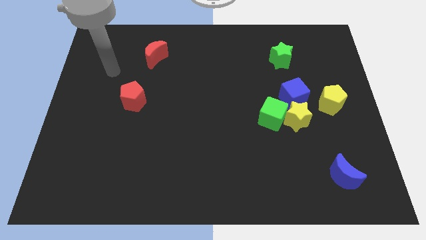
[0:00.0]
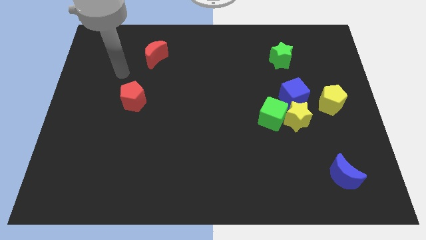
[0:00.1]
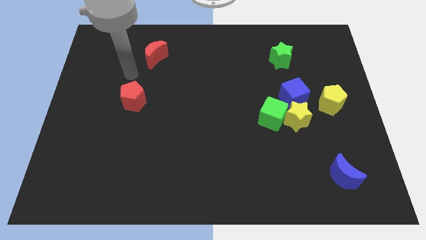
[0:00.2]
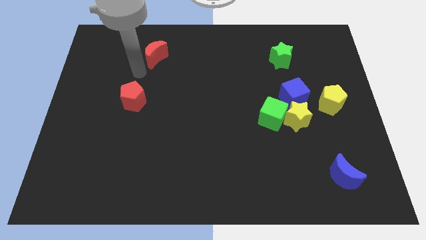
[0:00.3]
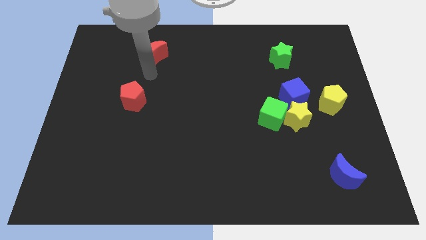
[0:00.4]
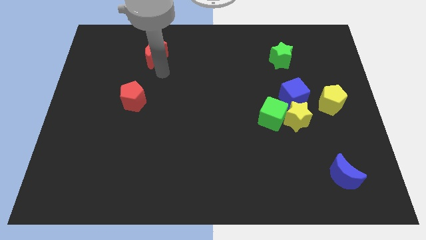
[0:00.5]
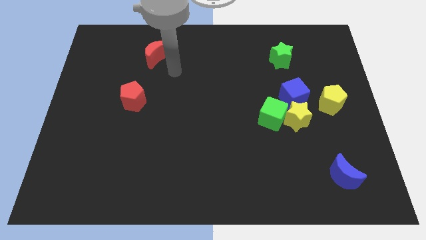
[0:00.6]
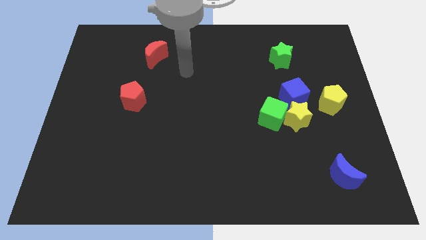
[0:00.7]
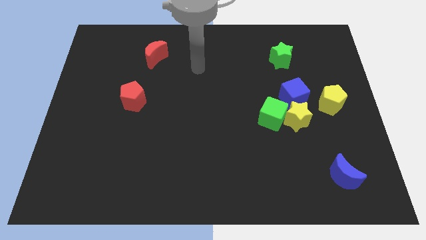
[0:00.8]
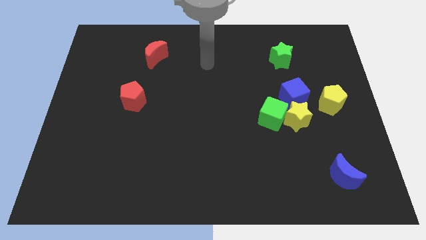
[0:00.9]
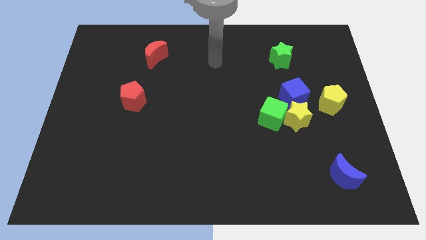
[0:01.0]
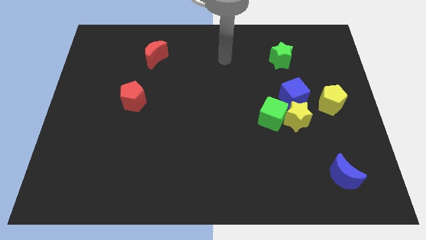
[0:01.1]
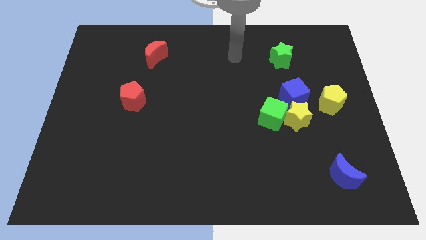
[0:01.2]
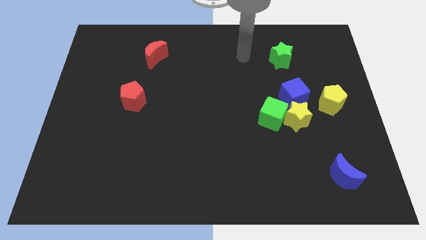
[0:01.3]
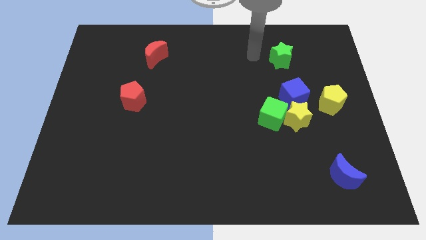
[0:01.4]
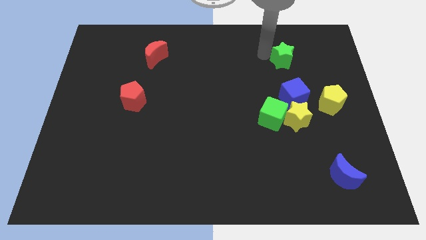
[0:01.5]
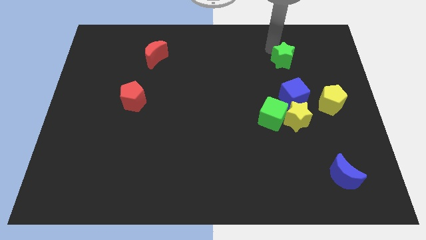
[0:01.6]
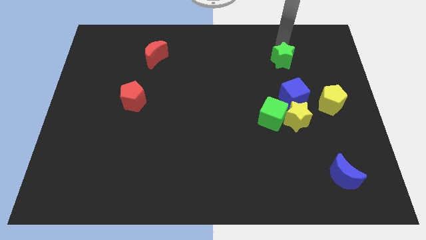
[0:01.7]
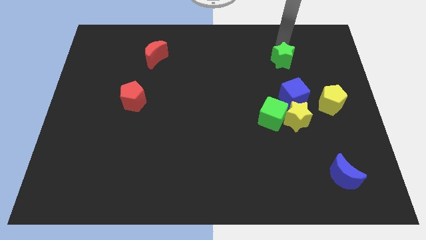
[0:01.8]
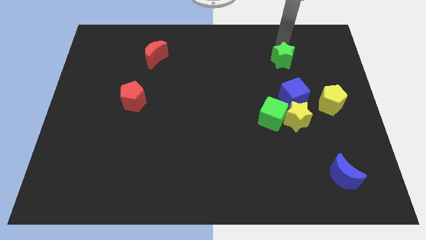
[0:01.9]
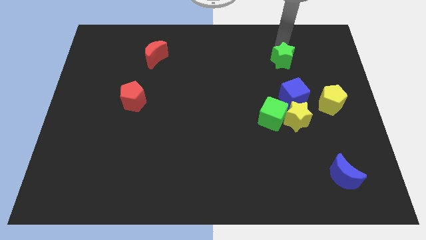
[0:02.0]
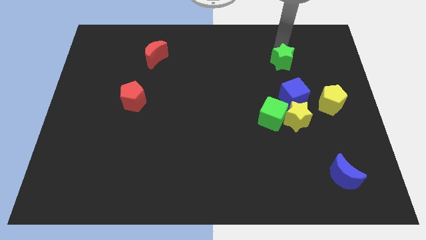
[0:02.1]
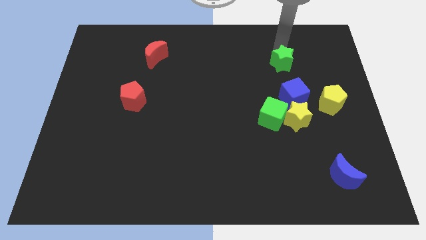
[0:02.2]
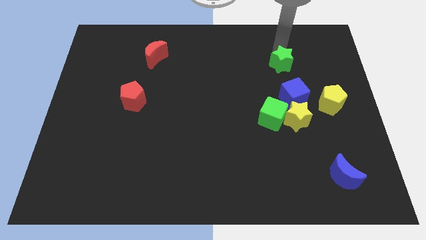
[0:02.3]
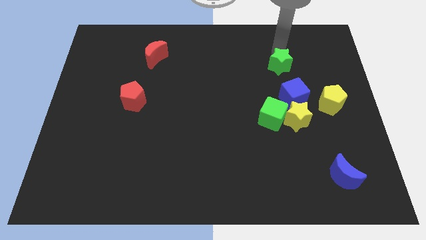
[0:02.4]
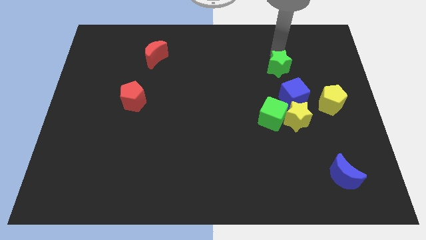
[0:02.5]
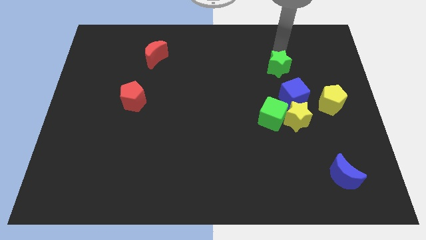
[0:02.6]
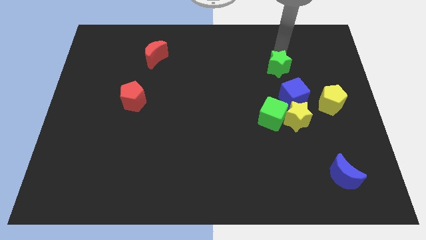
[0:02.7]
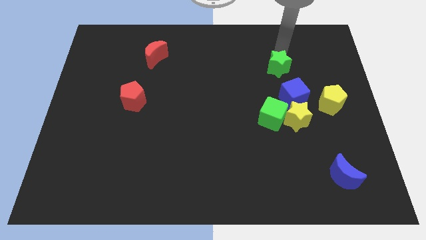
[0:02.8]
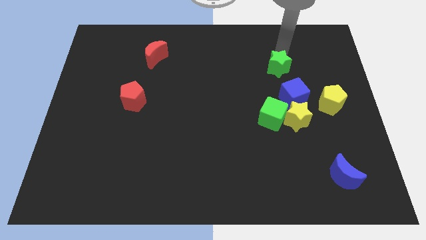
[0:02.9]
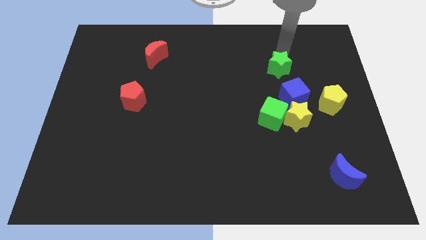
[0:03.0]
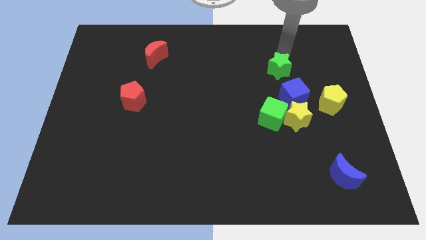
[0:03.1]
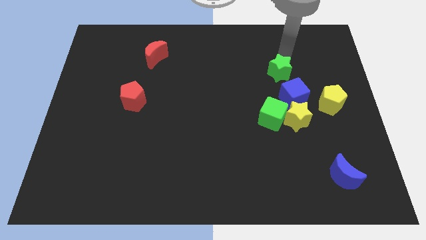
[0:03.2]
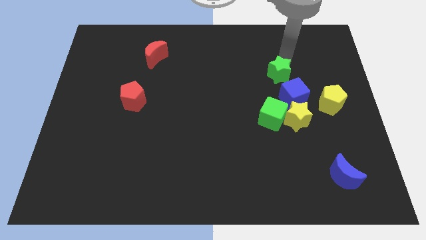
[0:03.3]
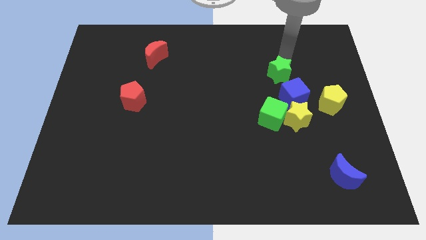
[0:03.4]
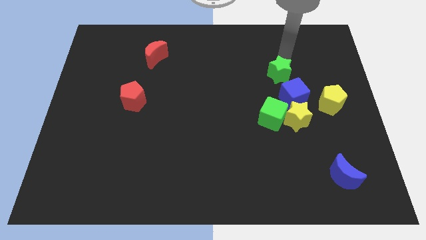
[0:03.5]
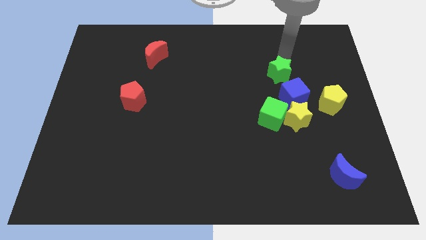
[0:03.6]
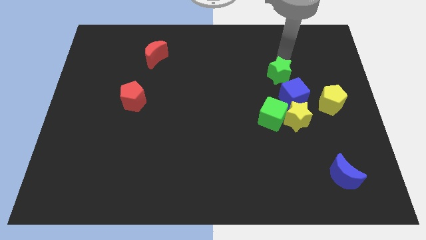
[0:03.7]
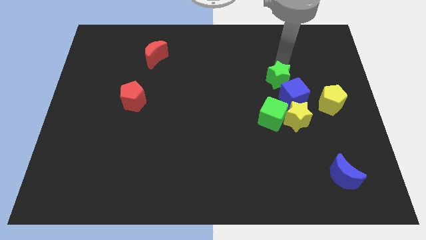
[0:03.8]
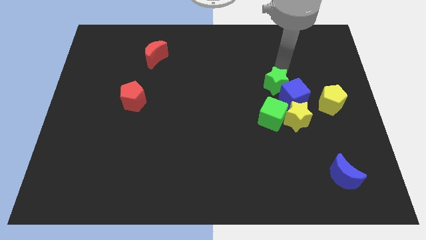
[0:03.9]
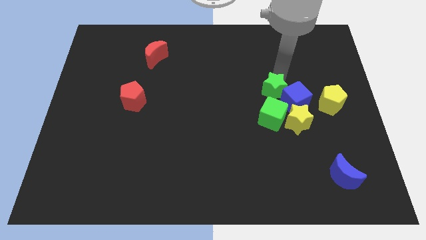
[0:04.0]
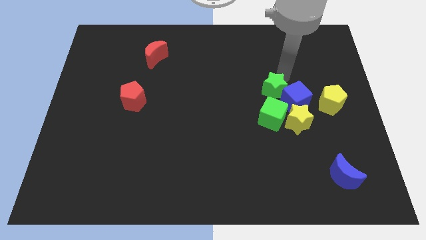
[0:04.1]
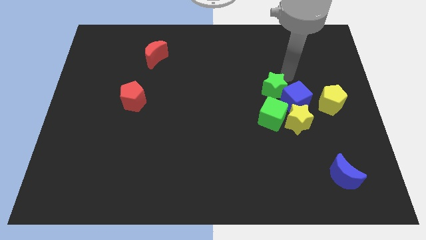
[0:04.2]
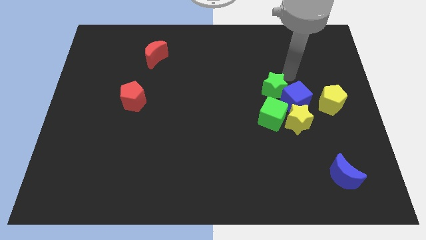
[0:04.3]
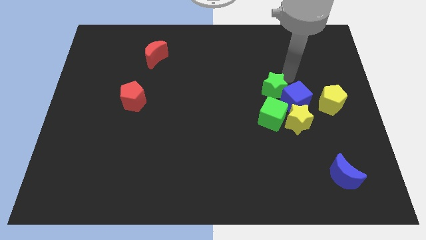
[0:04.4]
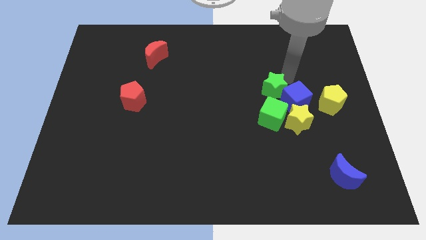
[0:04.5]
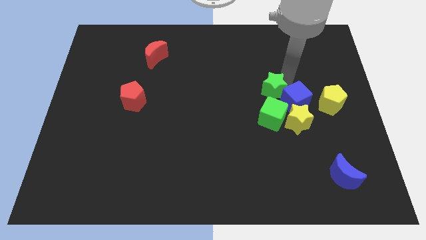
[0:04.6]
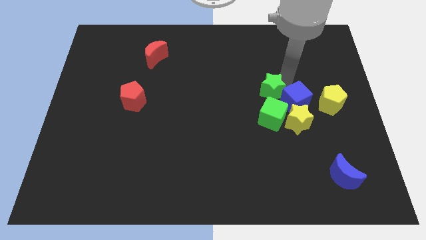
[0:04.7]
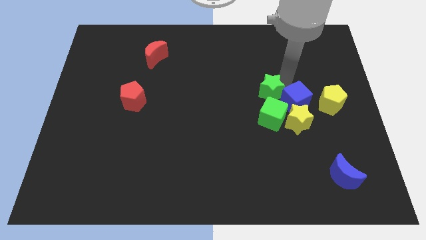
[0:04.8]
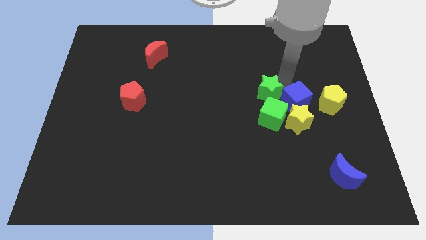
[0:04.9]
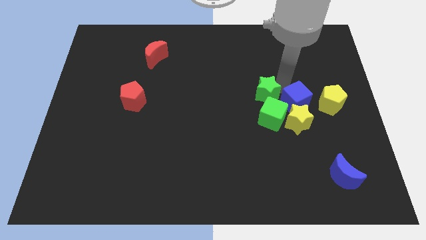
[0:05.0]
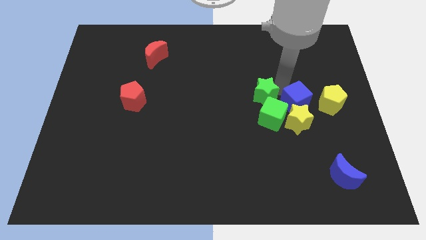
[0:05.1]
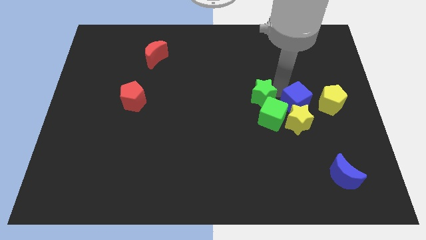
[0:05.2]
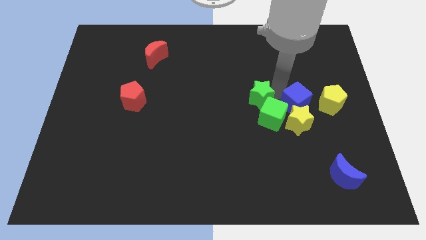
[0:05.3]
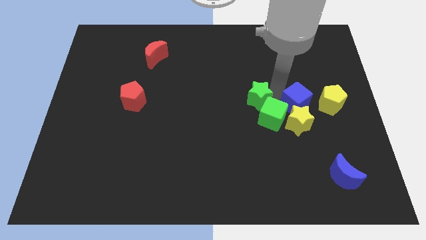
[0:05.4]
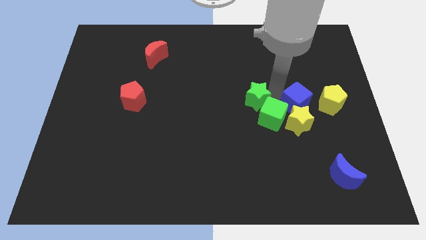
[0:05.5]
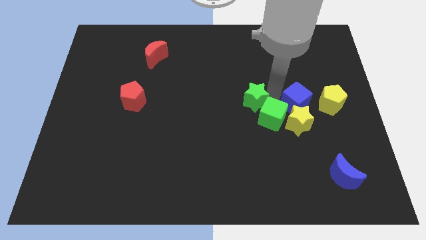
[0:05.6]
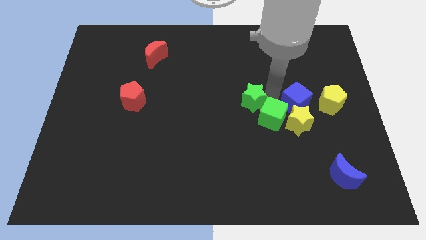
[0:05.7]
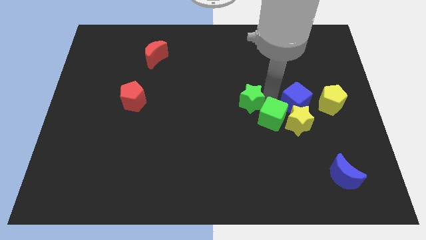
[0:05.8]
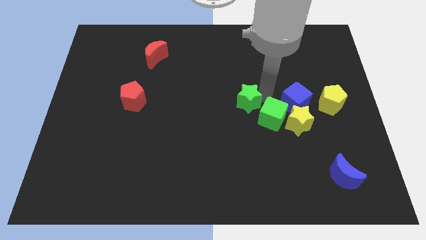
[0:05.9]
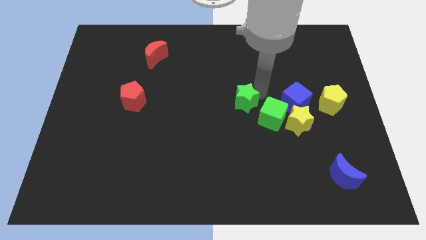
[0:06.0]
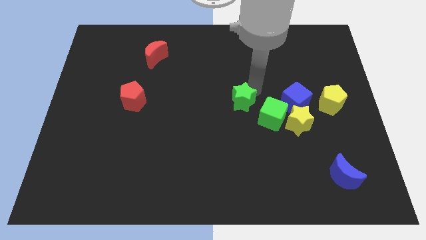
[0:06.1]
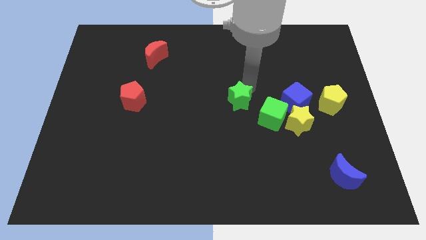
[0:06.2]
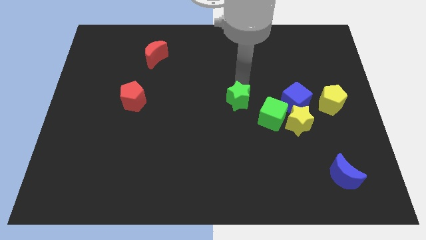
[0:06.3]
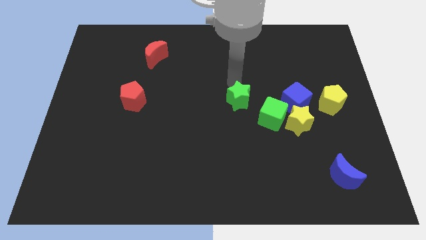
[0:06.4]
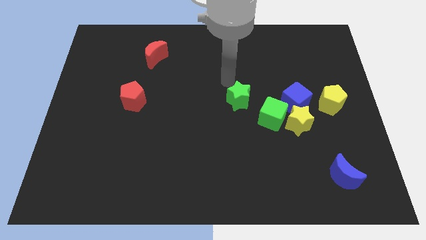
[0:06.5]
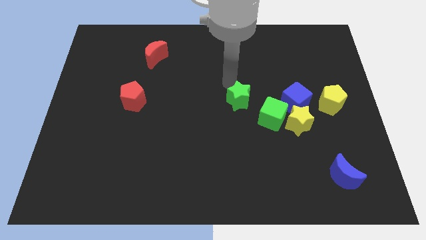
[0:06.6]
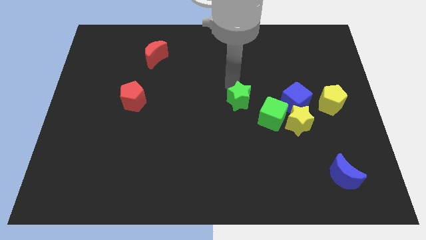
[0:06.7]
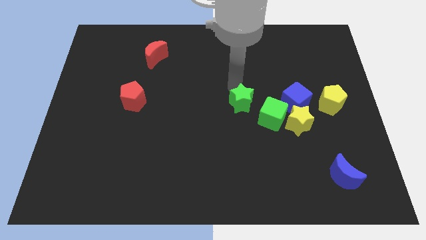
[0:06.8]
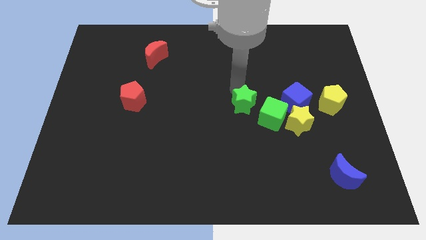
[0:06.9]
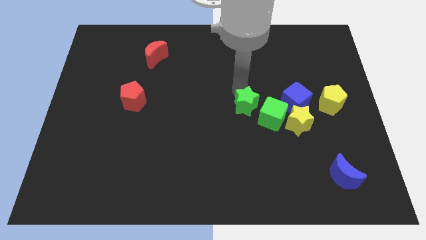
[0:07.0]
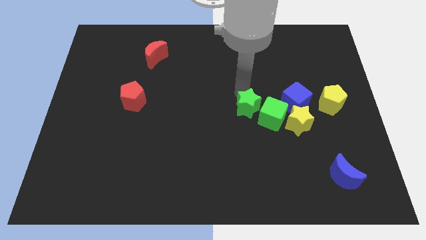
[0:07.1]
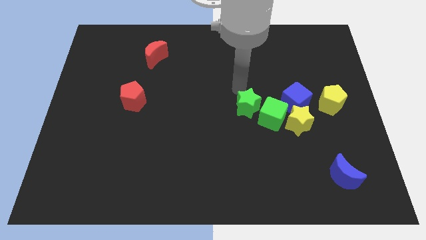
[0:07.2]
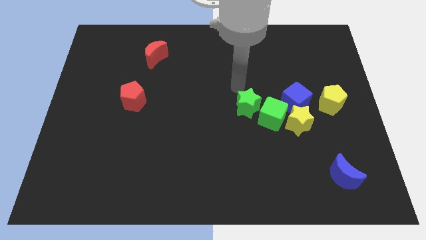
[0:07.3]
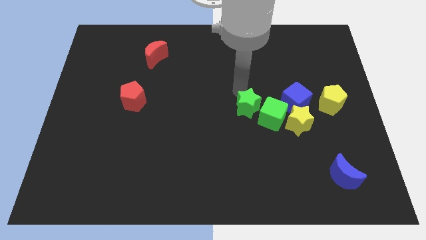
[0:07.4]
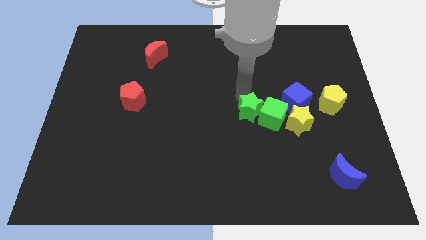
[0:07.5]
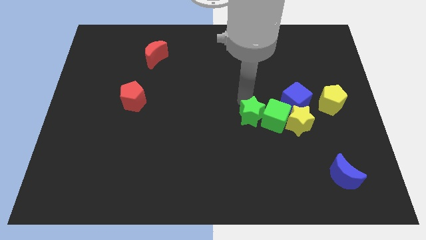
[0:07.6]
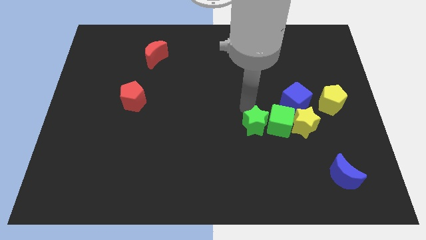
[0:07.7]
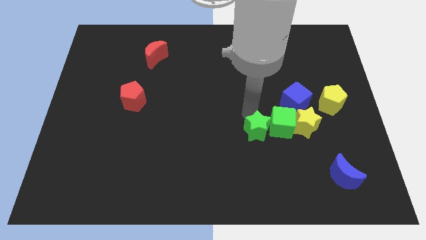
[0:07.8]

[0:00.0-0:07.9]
push the green star down

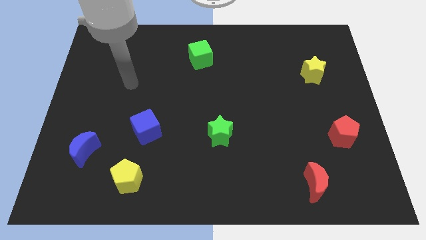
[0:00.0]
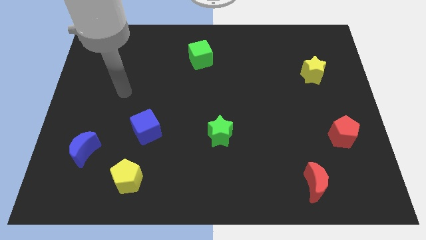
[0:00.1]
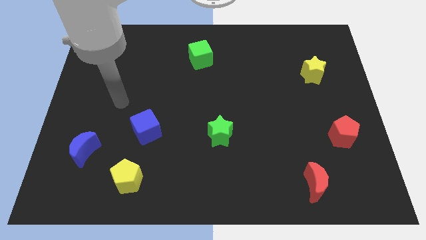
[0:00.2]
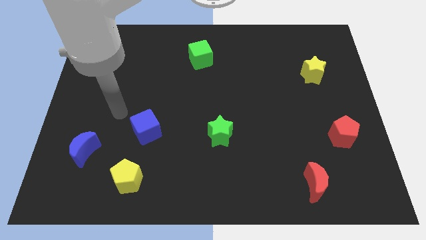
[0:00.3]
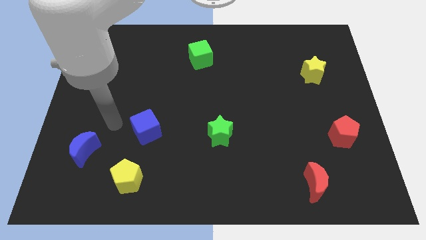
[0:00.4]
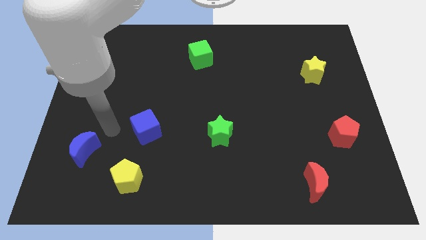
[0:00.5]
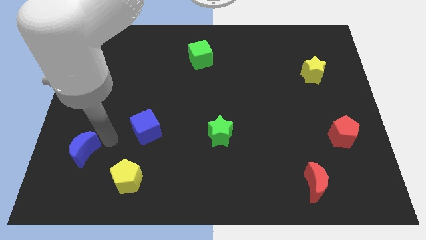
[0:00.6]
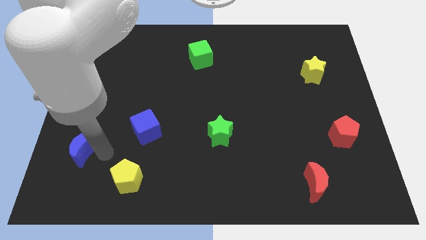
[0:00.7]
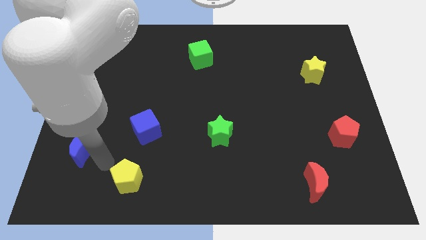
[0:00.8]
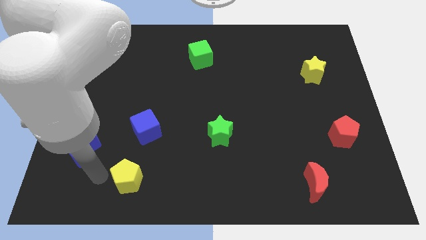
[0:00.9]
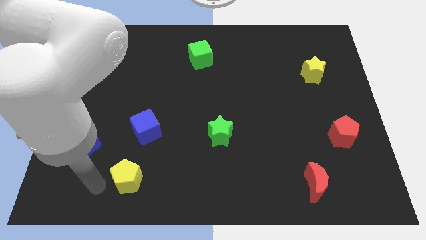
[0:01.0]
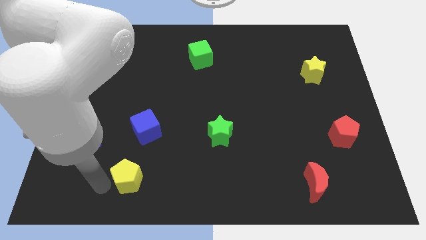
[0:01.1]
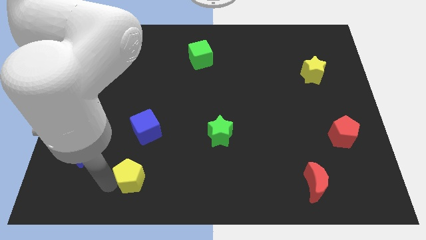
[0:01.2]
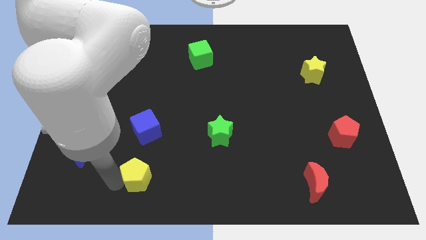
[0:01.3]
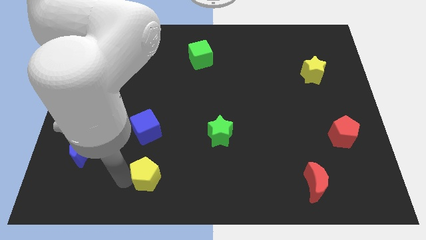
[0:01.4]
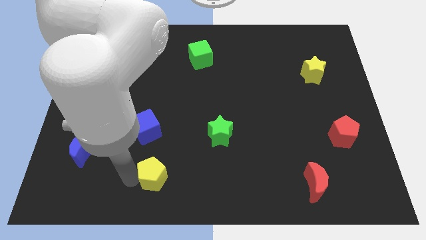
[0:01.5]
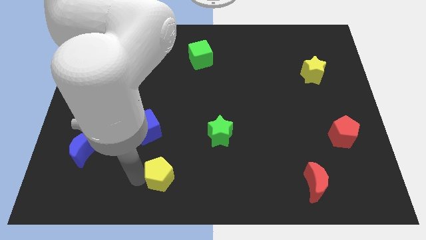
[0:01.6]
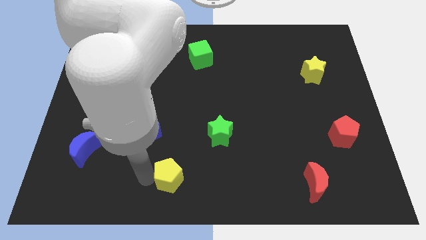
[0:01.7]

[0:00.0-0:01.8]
push the yellow pentagon a little to the right
